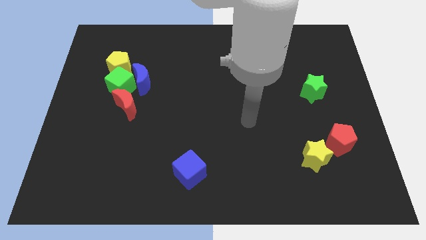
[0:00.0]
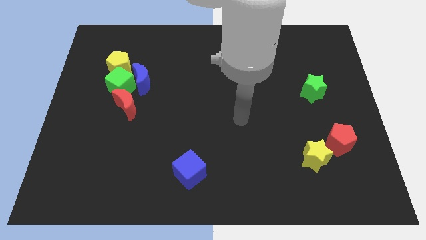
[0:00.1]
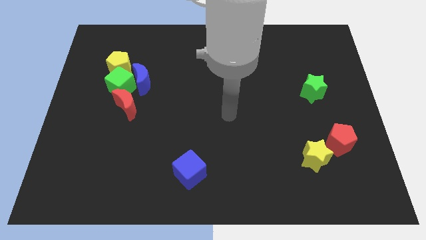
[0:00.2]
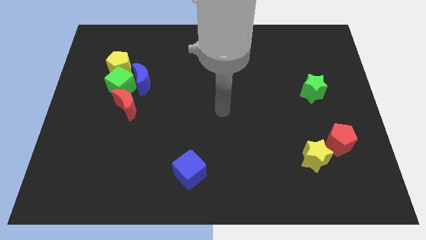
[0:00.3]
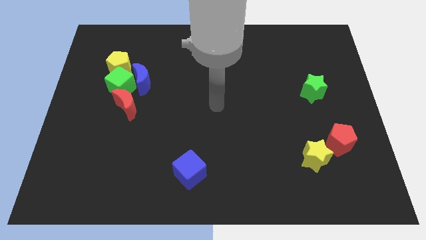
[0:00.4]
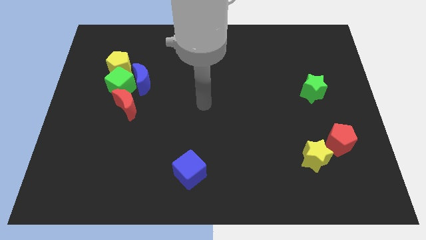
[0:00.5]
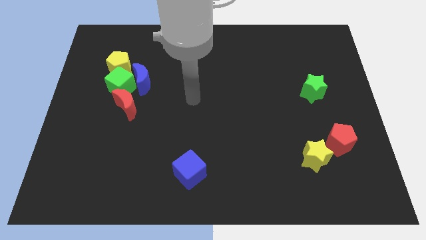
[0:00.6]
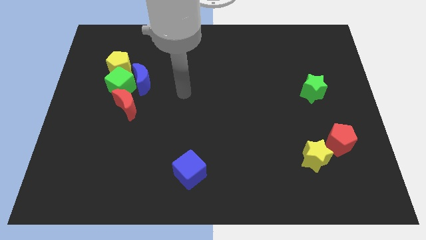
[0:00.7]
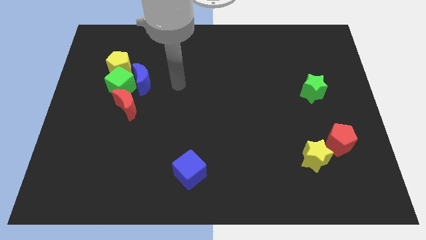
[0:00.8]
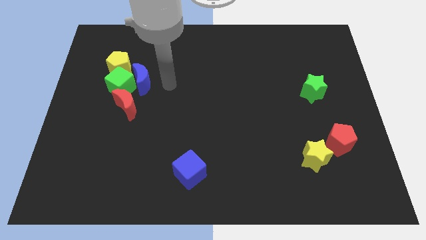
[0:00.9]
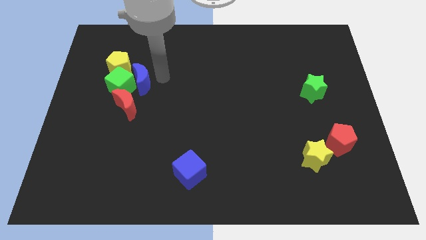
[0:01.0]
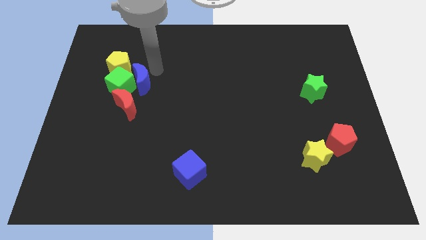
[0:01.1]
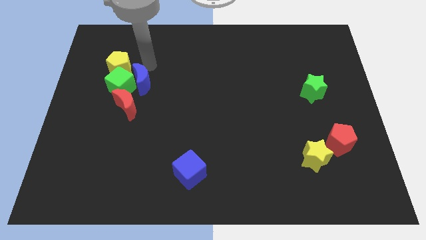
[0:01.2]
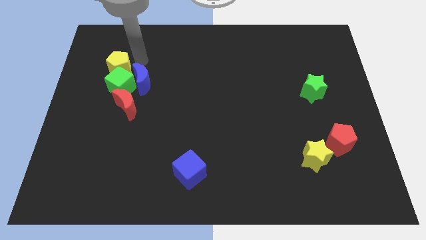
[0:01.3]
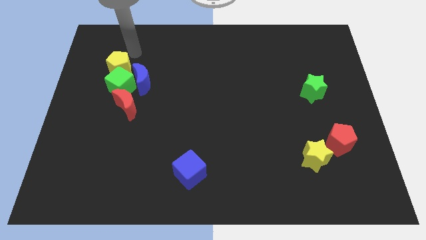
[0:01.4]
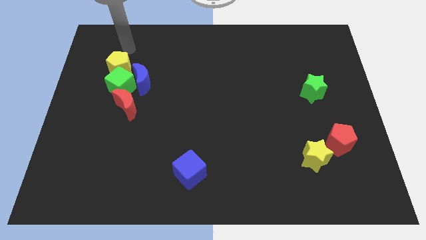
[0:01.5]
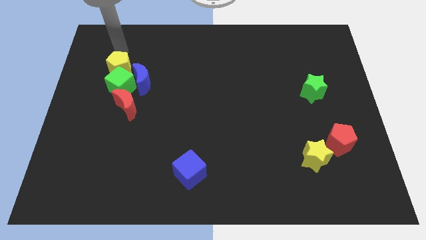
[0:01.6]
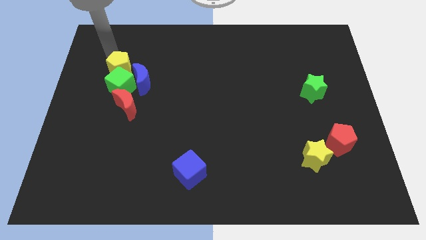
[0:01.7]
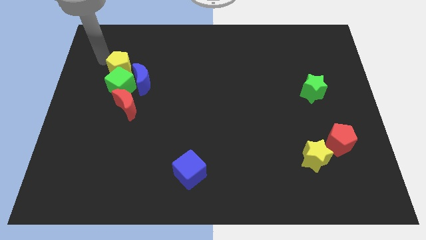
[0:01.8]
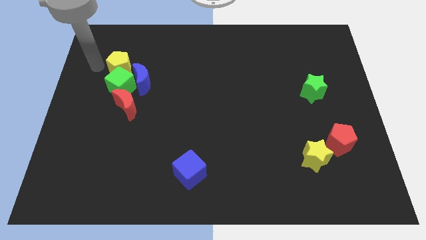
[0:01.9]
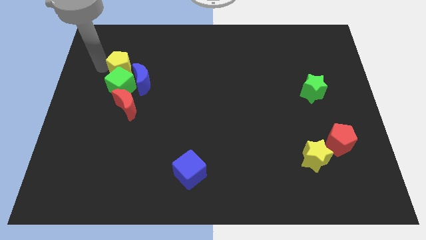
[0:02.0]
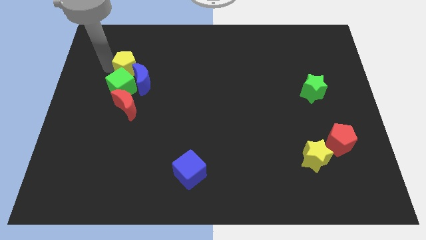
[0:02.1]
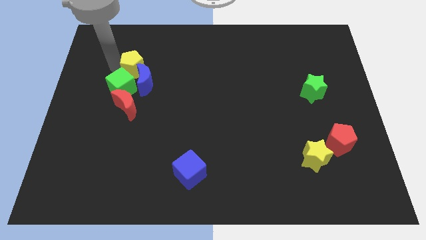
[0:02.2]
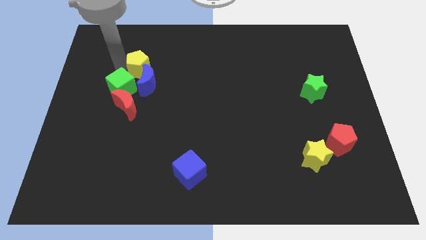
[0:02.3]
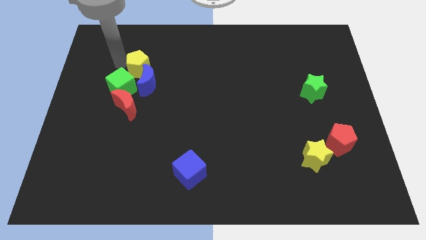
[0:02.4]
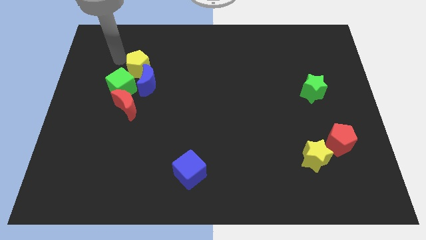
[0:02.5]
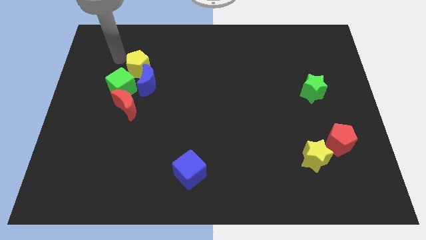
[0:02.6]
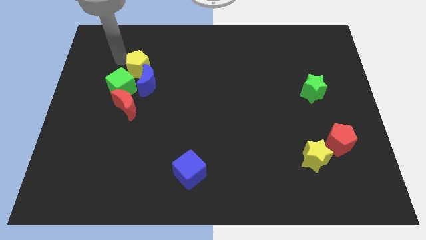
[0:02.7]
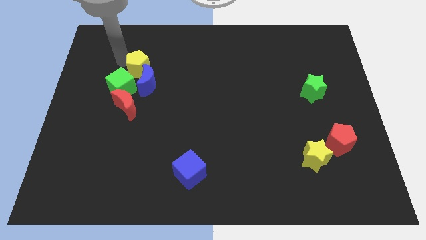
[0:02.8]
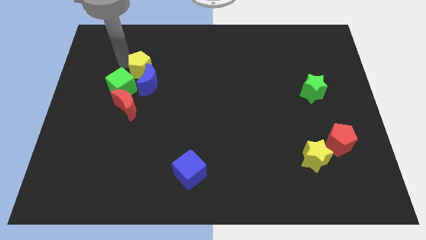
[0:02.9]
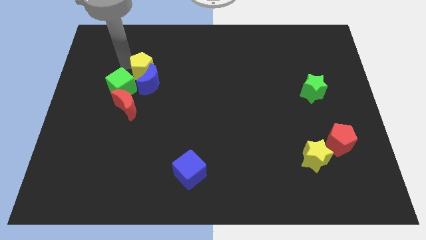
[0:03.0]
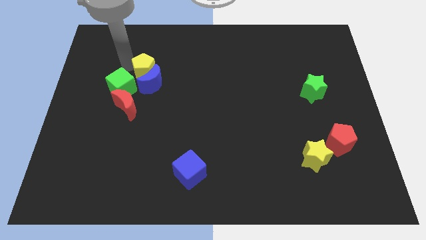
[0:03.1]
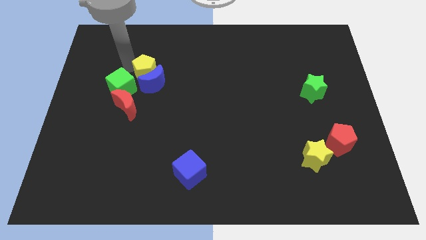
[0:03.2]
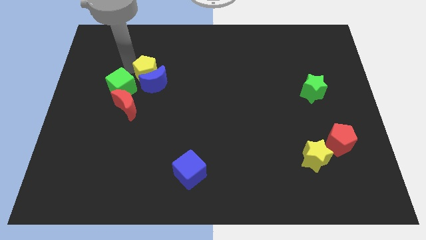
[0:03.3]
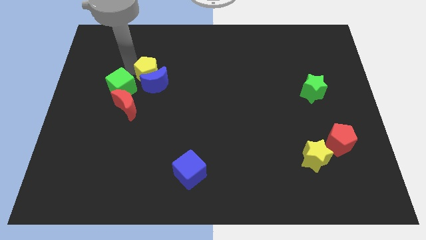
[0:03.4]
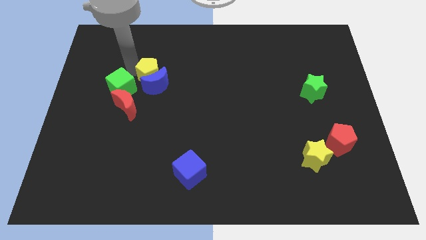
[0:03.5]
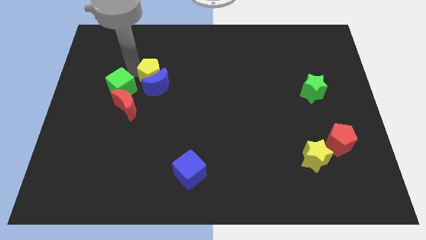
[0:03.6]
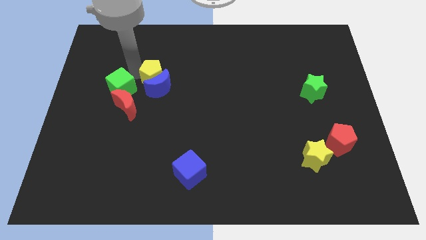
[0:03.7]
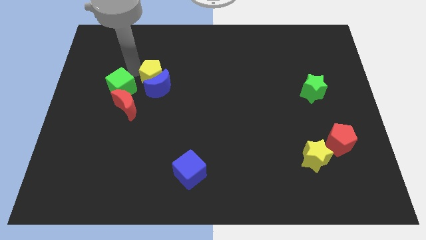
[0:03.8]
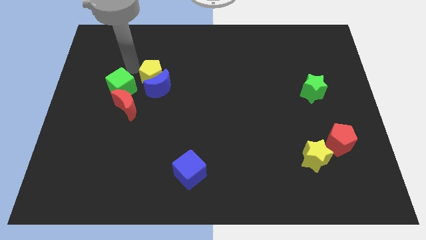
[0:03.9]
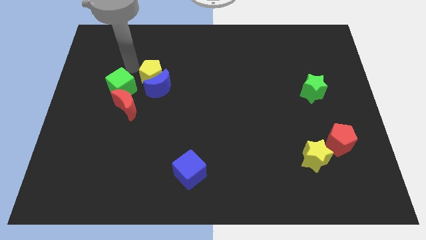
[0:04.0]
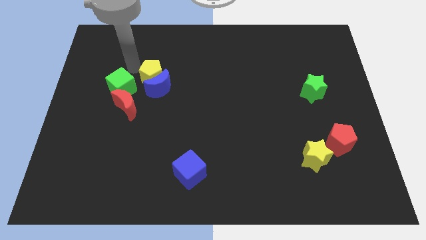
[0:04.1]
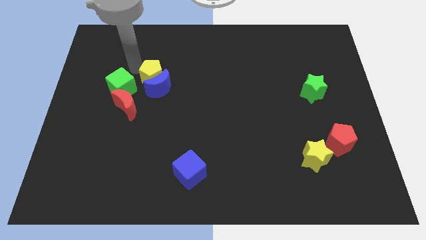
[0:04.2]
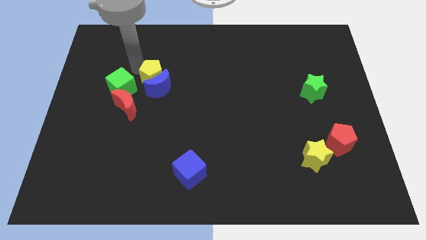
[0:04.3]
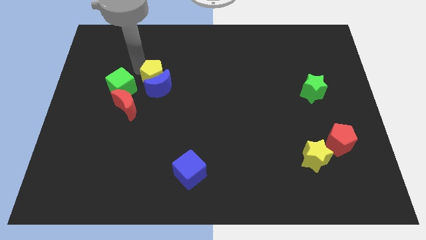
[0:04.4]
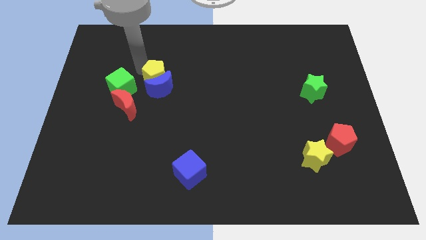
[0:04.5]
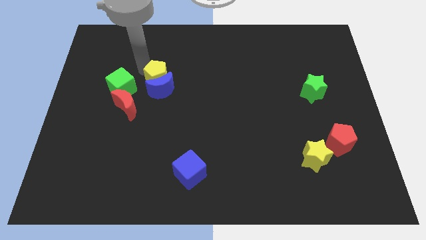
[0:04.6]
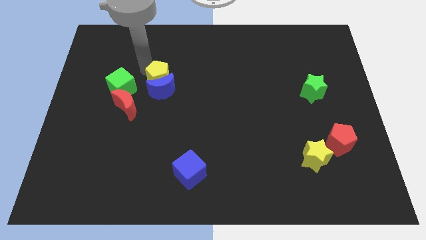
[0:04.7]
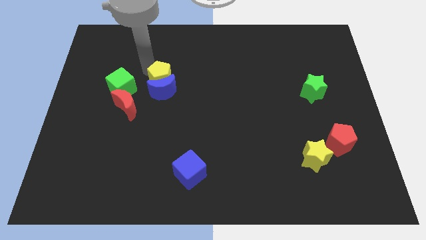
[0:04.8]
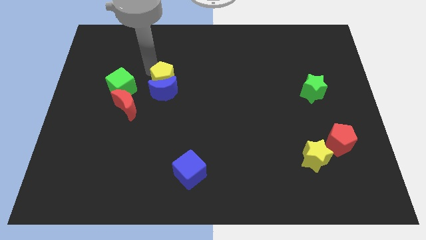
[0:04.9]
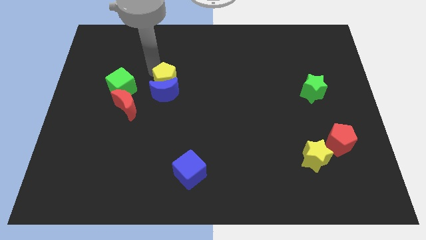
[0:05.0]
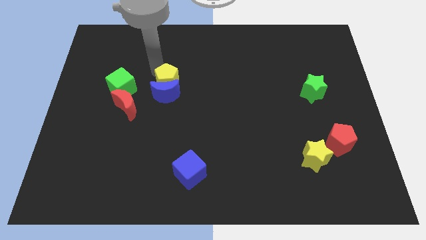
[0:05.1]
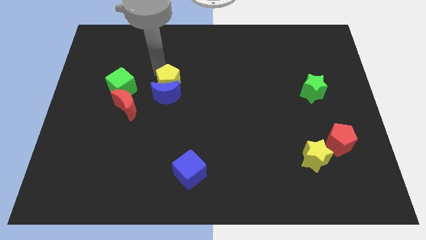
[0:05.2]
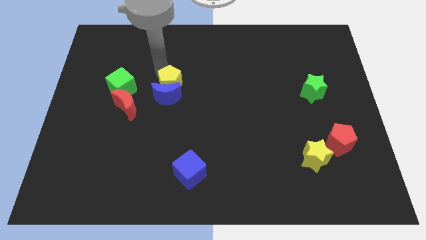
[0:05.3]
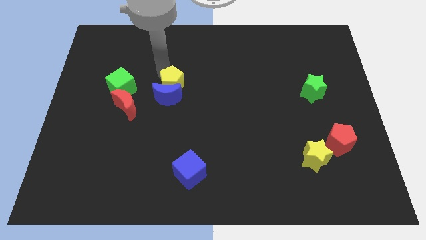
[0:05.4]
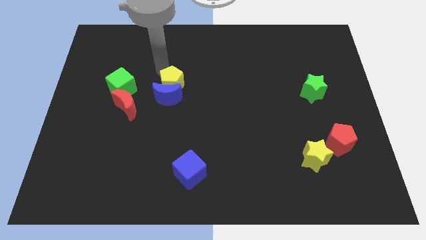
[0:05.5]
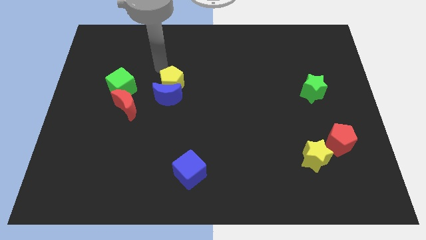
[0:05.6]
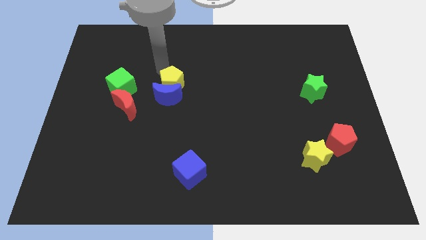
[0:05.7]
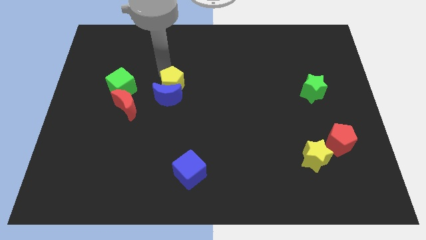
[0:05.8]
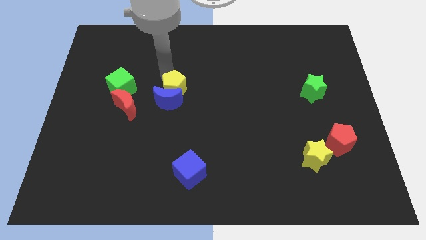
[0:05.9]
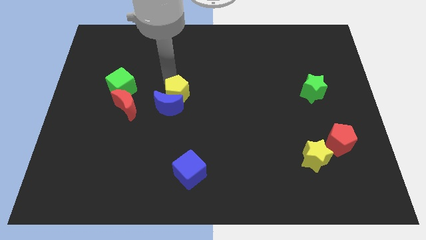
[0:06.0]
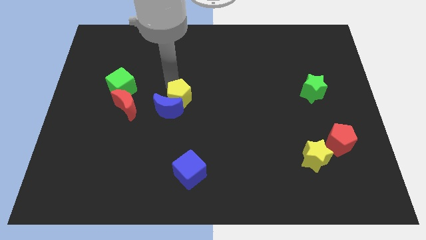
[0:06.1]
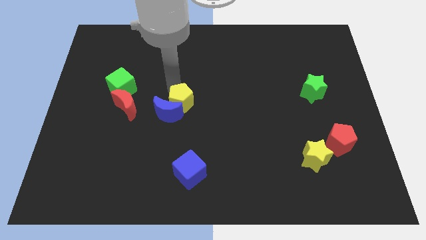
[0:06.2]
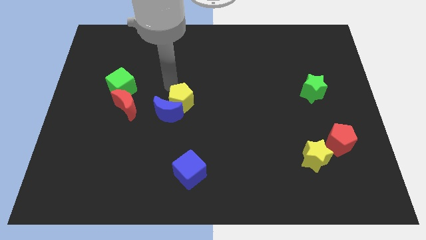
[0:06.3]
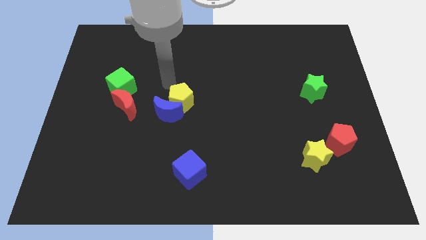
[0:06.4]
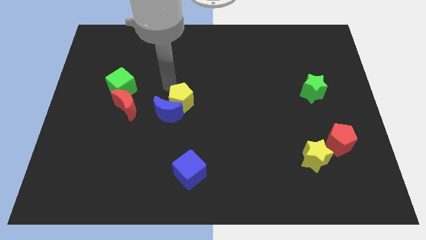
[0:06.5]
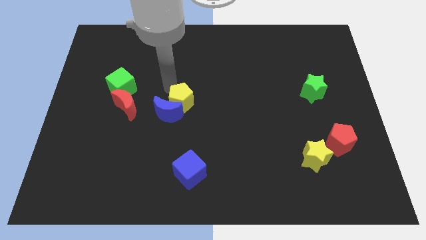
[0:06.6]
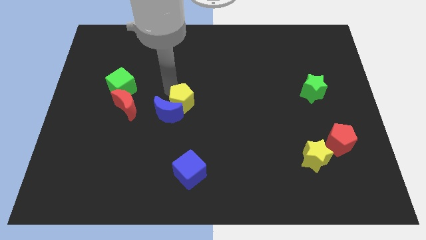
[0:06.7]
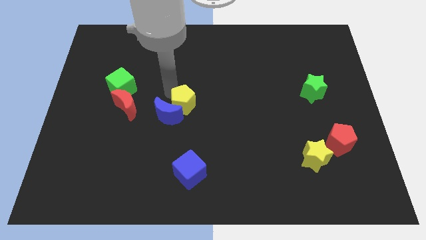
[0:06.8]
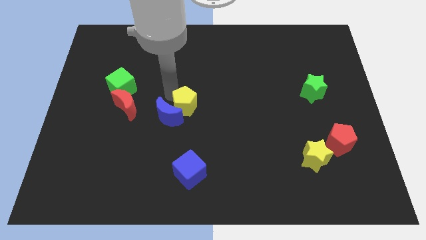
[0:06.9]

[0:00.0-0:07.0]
move the yellow pentagon diagonally downwards and right

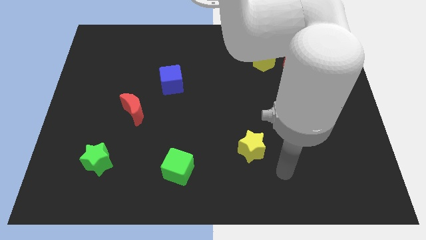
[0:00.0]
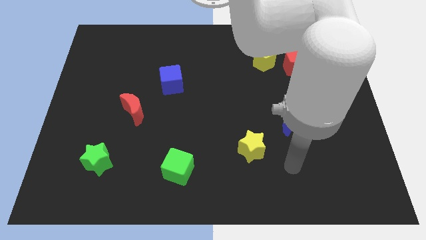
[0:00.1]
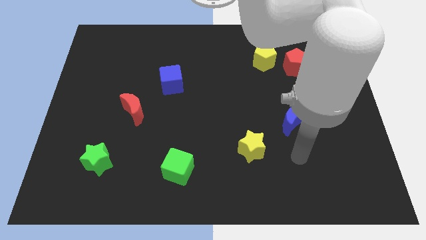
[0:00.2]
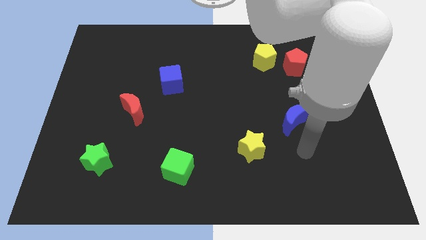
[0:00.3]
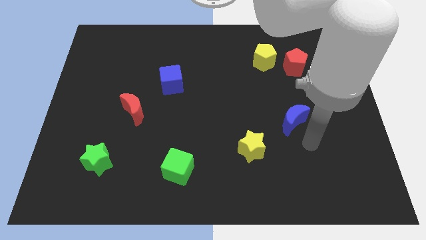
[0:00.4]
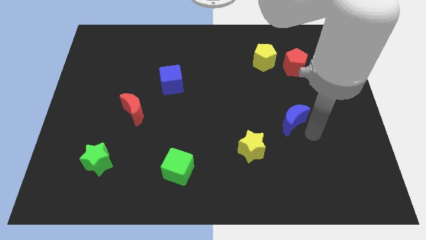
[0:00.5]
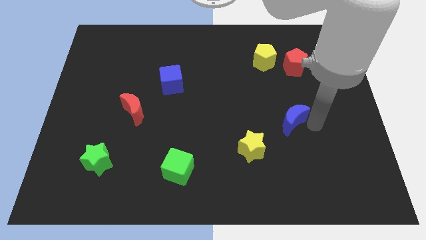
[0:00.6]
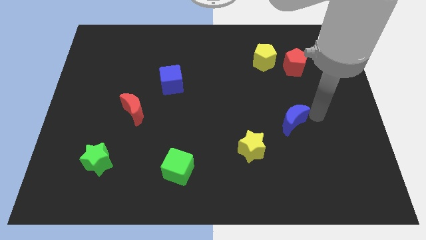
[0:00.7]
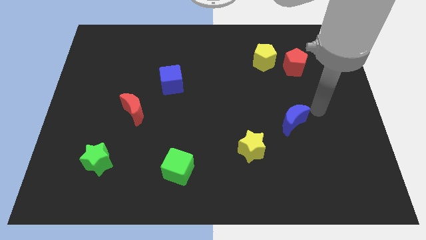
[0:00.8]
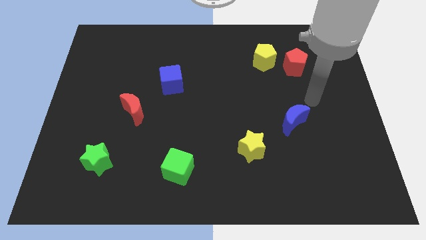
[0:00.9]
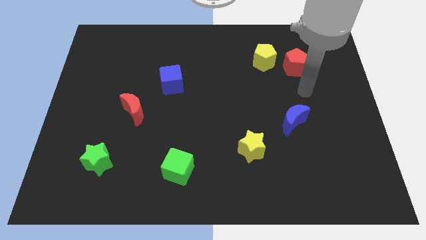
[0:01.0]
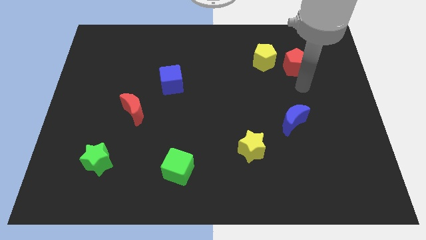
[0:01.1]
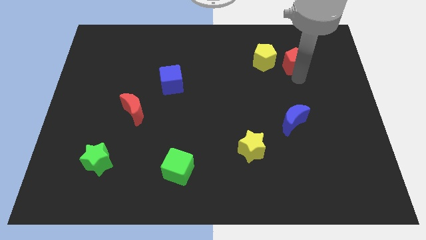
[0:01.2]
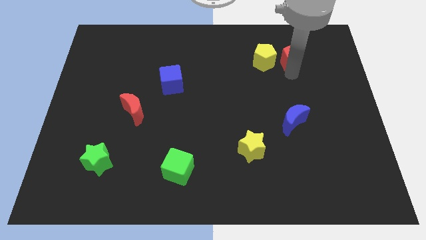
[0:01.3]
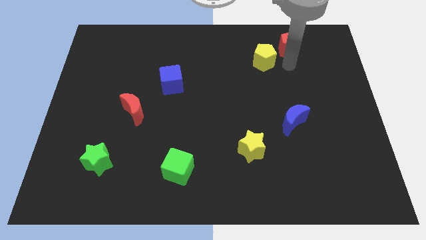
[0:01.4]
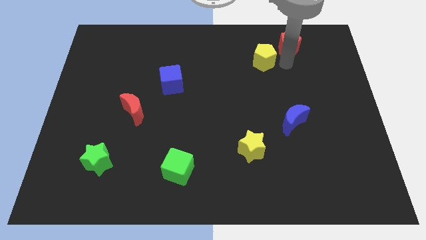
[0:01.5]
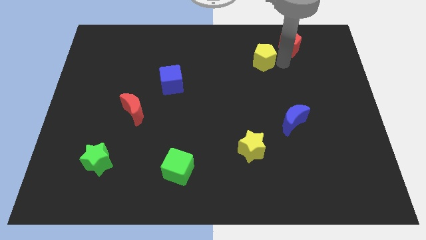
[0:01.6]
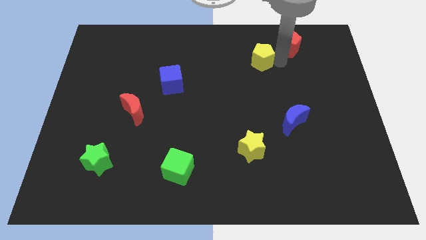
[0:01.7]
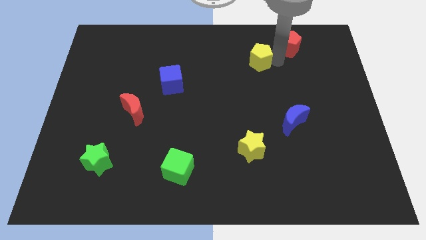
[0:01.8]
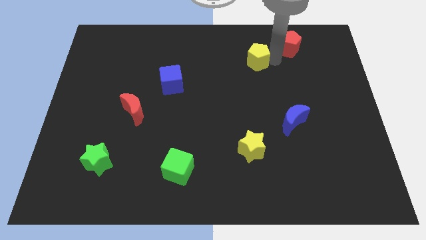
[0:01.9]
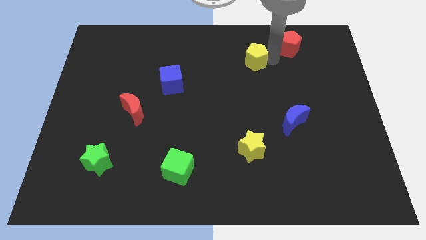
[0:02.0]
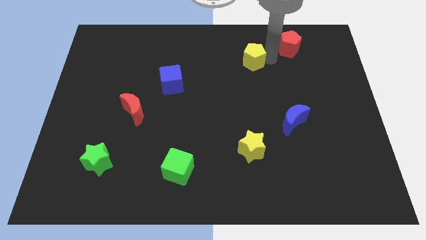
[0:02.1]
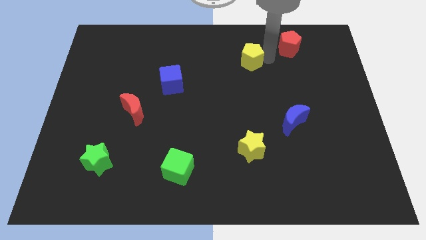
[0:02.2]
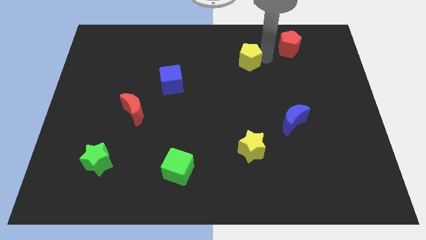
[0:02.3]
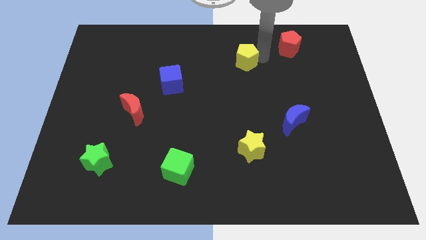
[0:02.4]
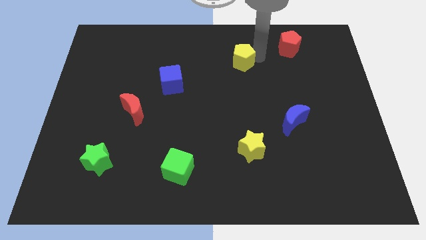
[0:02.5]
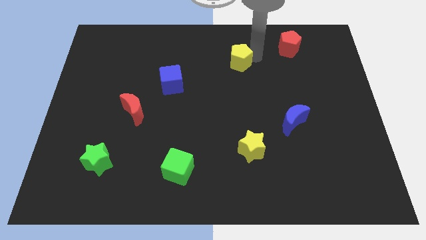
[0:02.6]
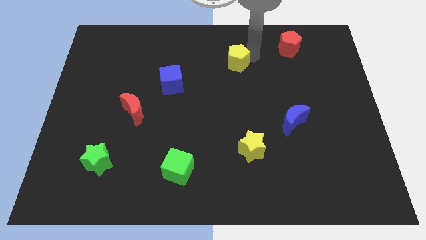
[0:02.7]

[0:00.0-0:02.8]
slide the yellow pentagon slightly to the left
